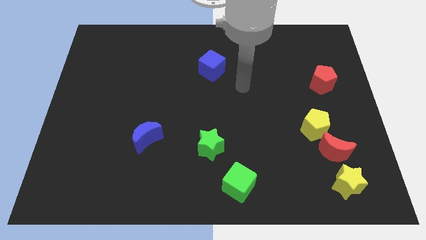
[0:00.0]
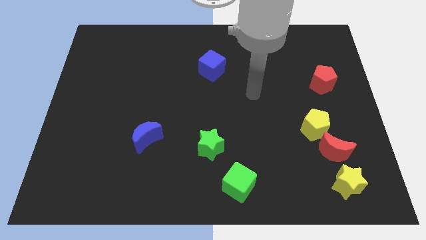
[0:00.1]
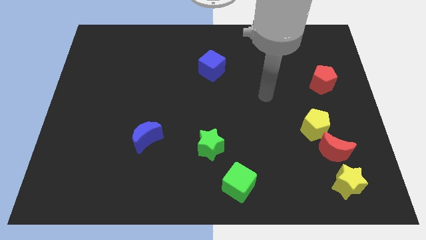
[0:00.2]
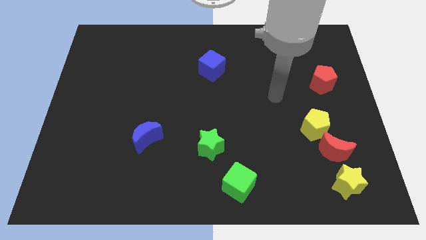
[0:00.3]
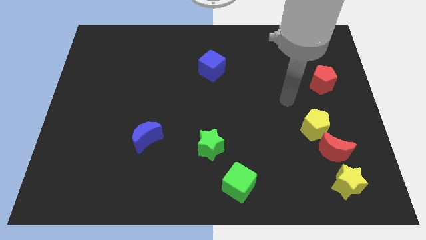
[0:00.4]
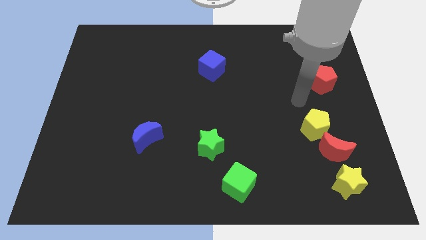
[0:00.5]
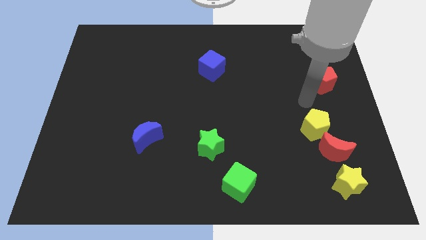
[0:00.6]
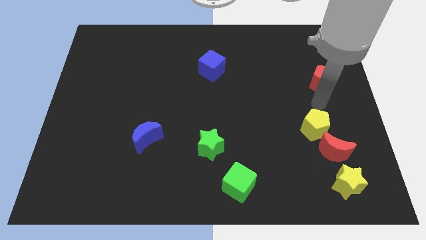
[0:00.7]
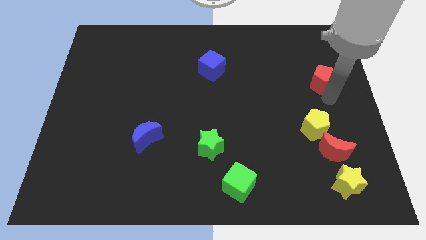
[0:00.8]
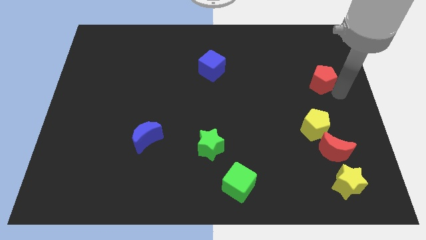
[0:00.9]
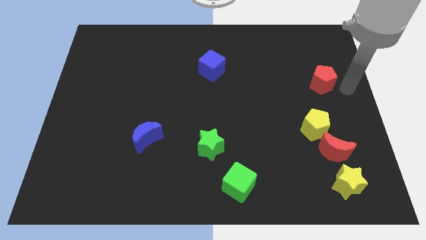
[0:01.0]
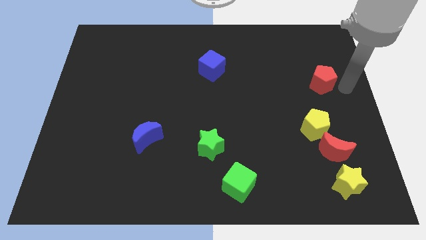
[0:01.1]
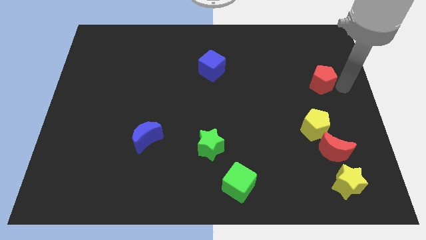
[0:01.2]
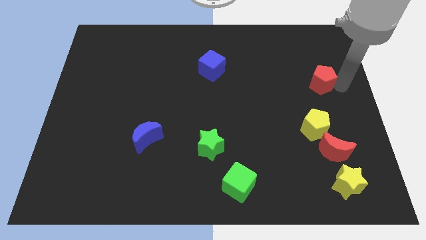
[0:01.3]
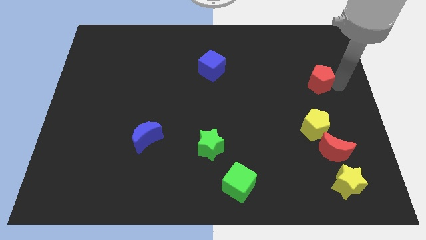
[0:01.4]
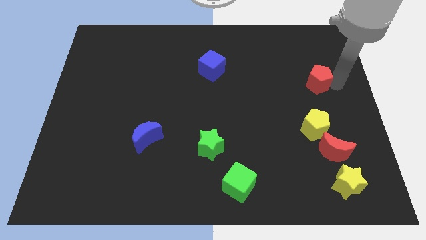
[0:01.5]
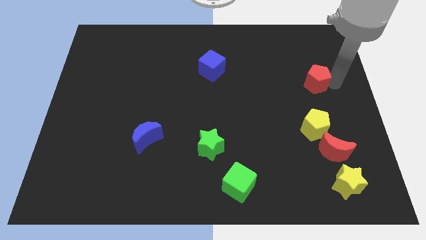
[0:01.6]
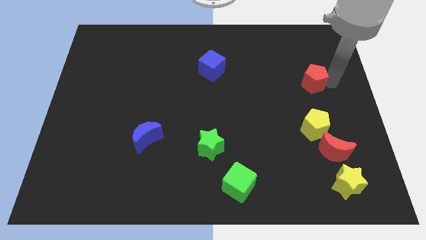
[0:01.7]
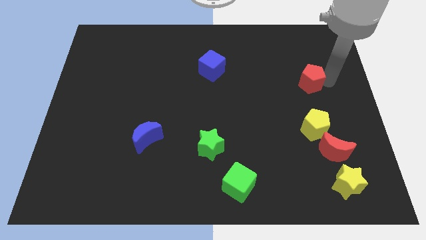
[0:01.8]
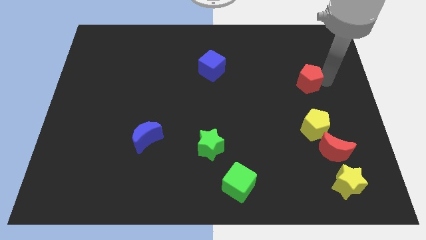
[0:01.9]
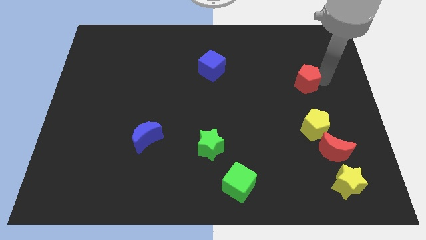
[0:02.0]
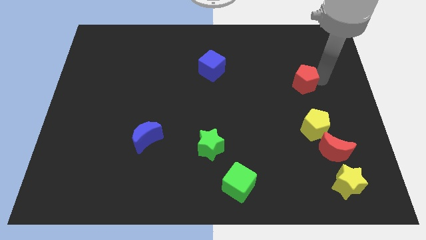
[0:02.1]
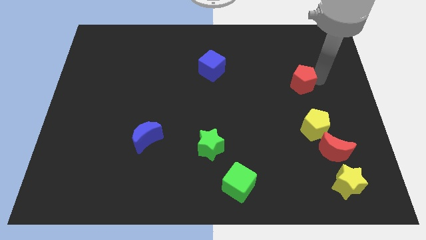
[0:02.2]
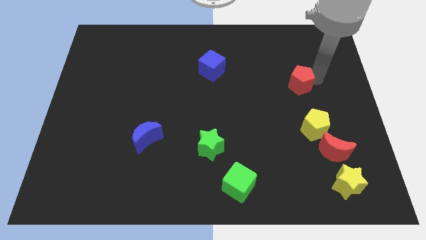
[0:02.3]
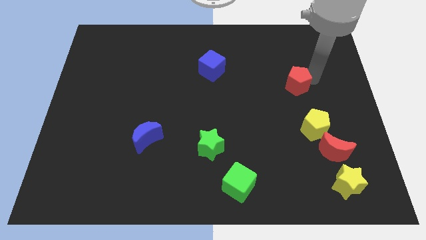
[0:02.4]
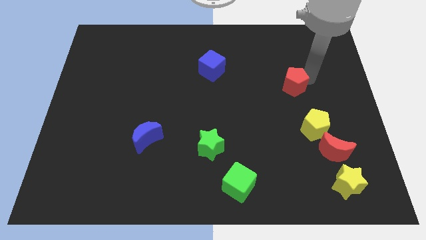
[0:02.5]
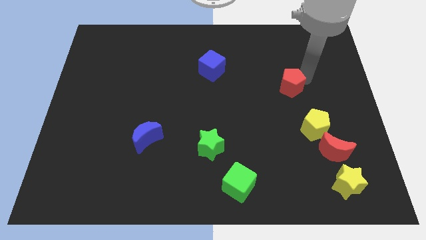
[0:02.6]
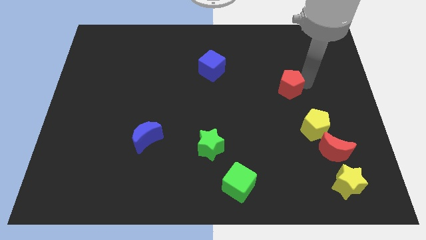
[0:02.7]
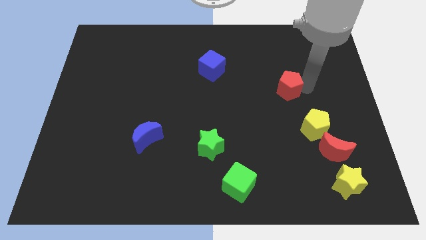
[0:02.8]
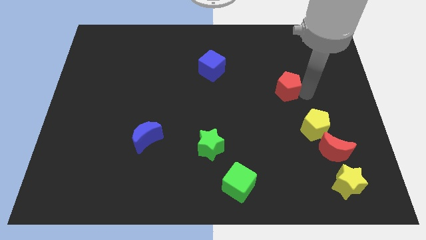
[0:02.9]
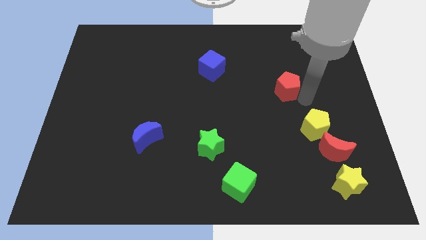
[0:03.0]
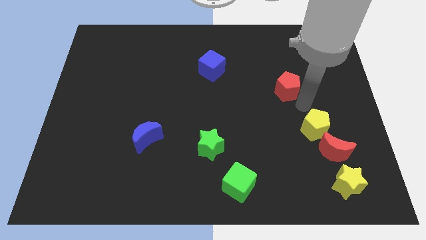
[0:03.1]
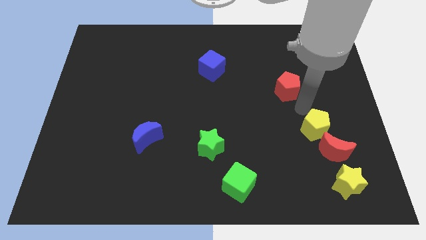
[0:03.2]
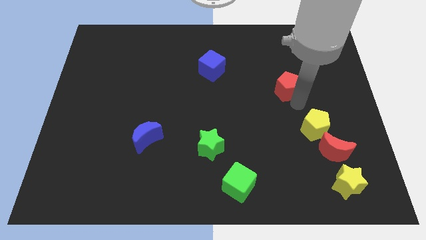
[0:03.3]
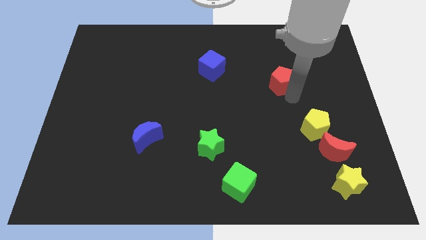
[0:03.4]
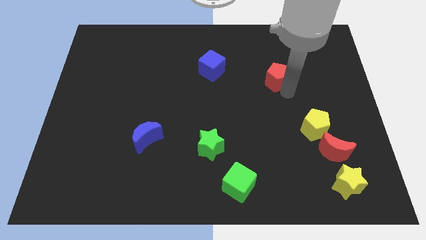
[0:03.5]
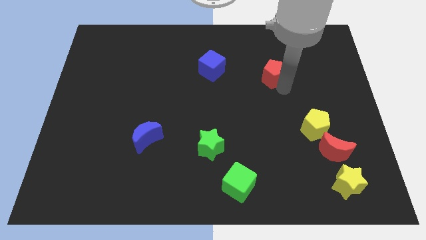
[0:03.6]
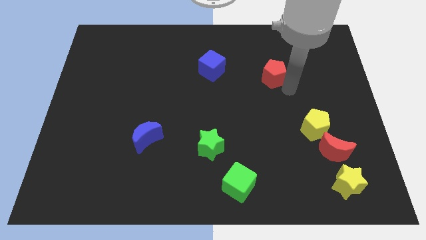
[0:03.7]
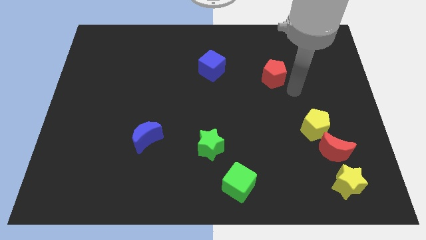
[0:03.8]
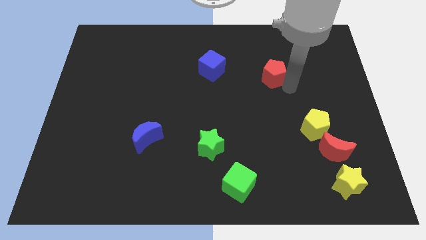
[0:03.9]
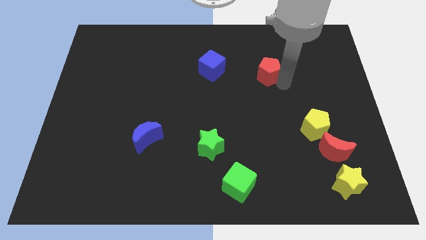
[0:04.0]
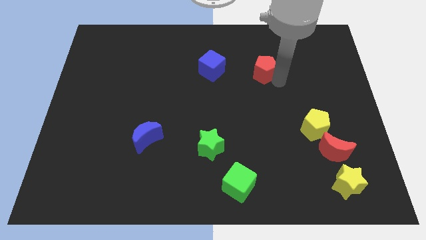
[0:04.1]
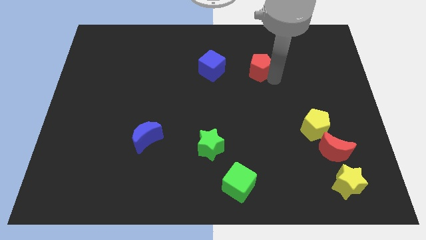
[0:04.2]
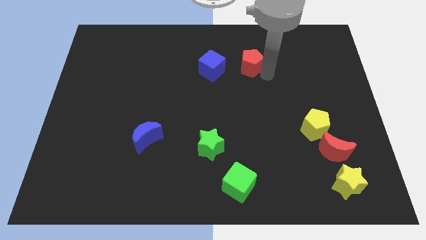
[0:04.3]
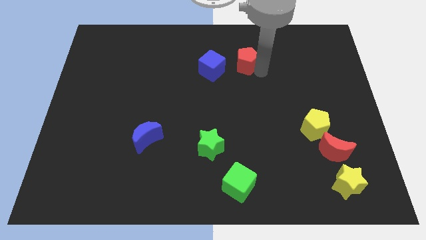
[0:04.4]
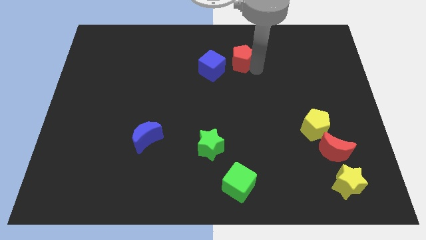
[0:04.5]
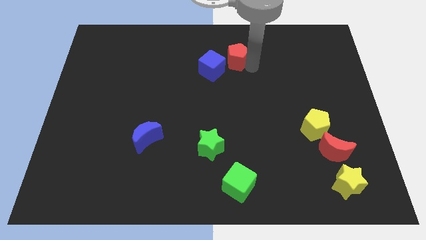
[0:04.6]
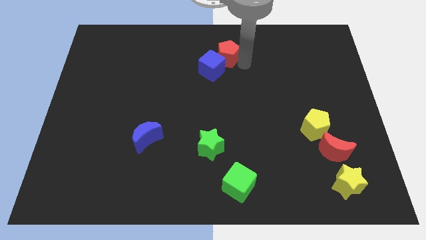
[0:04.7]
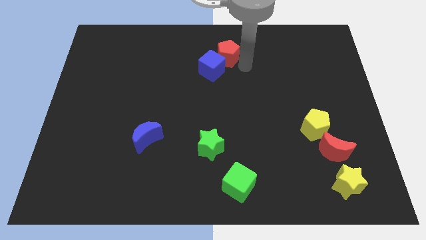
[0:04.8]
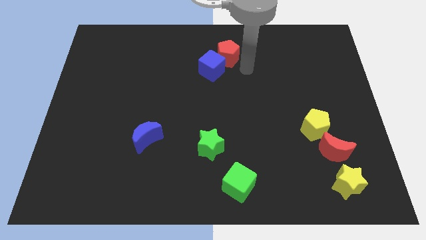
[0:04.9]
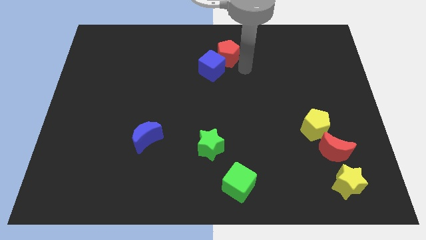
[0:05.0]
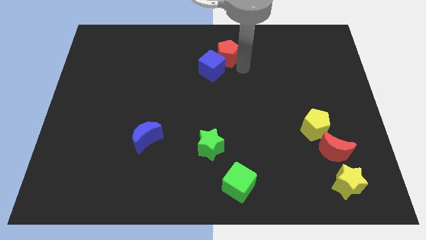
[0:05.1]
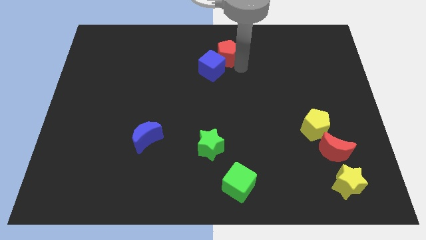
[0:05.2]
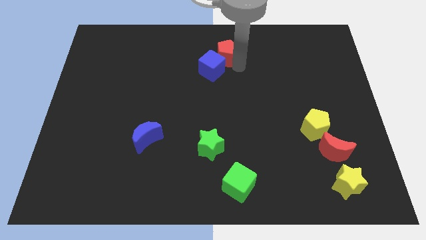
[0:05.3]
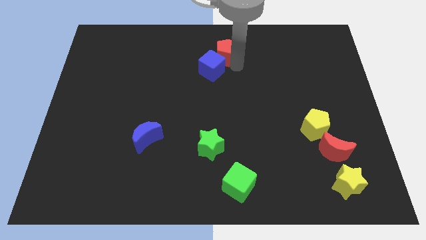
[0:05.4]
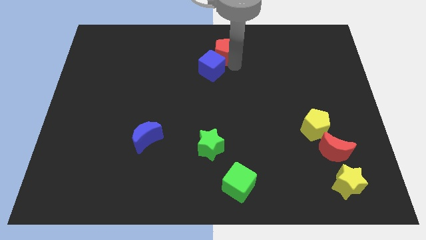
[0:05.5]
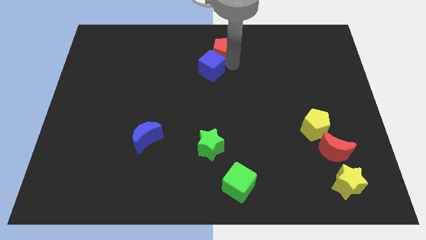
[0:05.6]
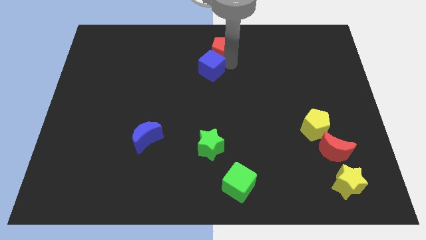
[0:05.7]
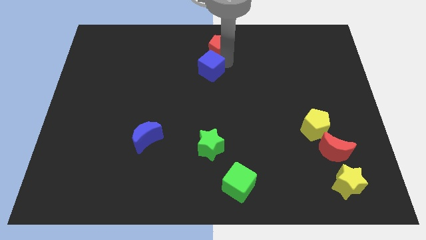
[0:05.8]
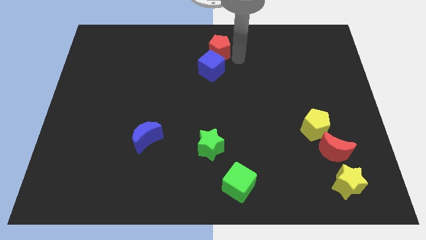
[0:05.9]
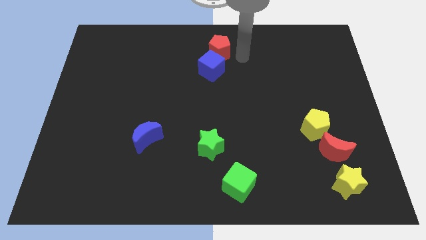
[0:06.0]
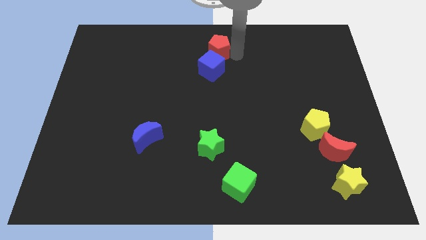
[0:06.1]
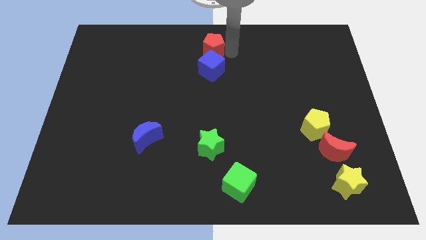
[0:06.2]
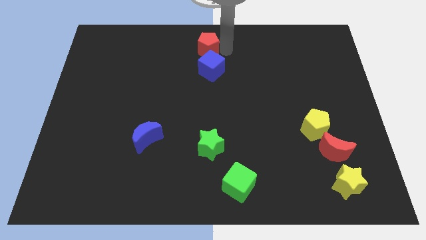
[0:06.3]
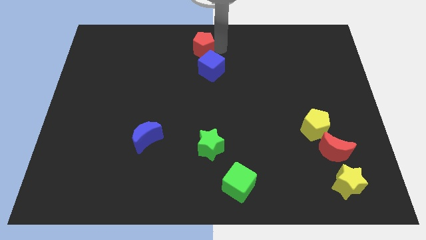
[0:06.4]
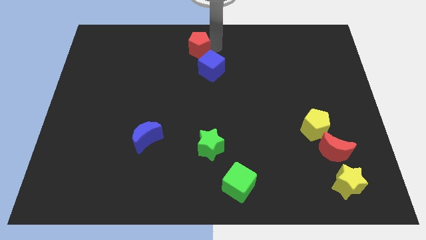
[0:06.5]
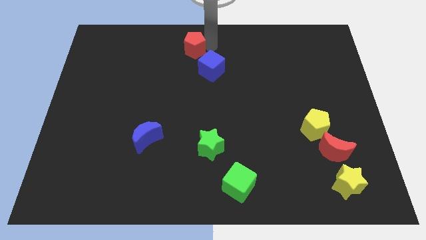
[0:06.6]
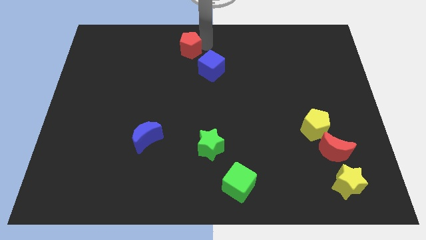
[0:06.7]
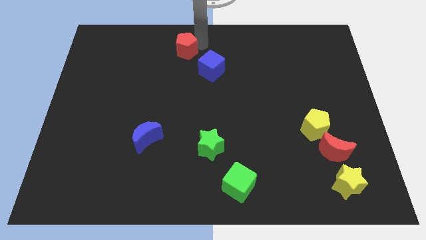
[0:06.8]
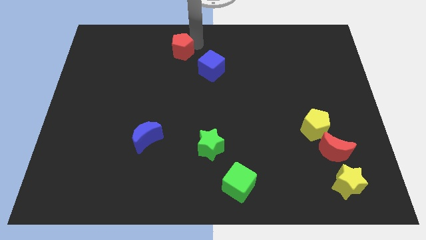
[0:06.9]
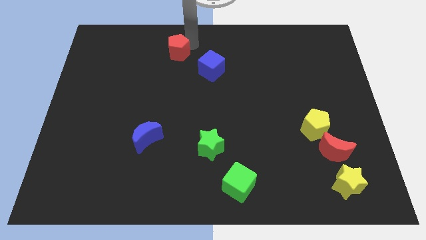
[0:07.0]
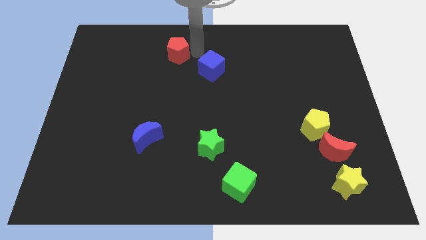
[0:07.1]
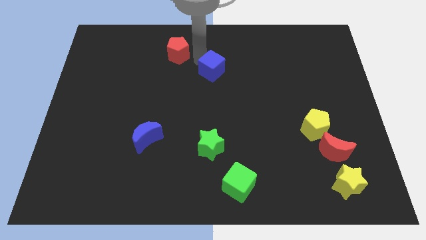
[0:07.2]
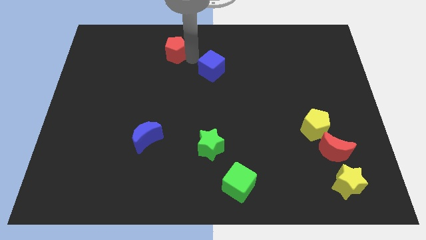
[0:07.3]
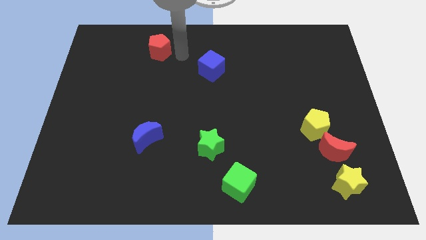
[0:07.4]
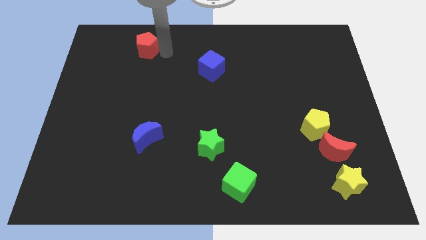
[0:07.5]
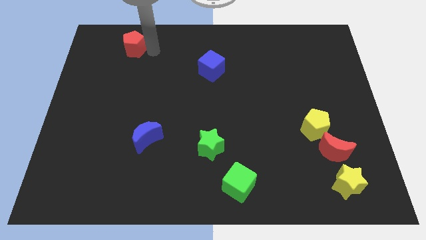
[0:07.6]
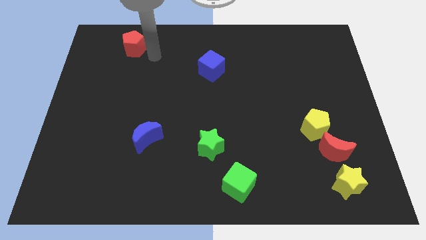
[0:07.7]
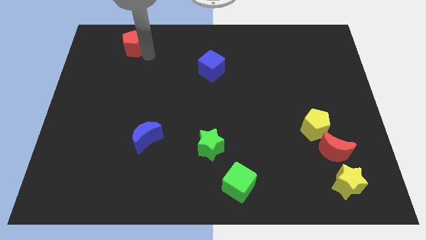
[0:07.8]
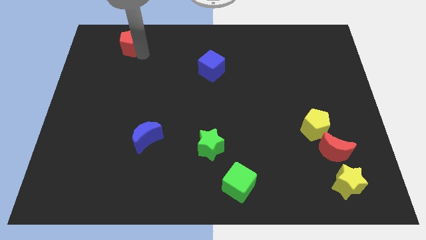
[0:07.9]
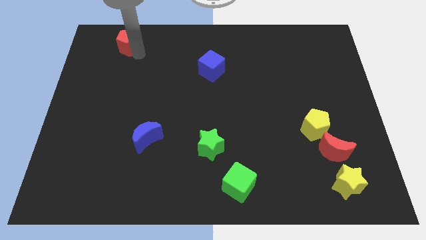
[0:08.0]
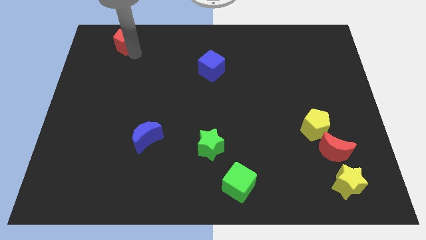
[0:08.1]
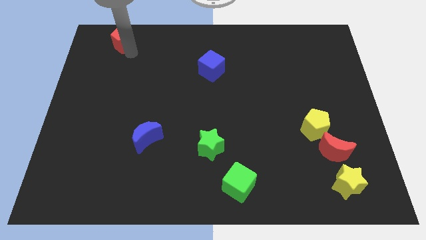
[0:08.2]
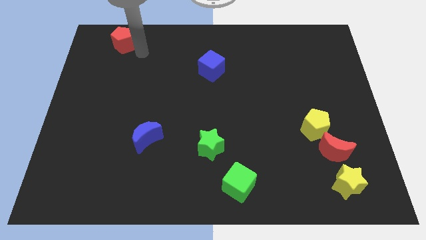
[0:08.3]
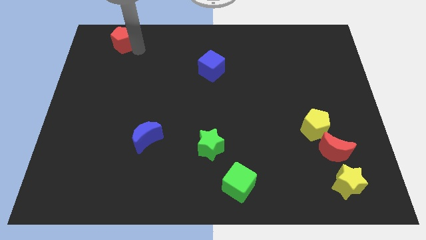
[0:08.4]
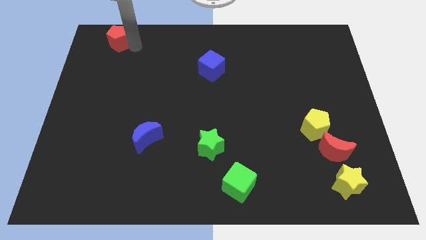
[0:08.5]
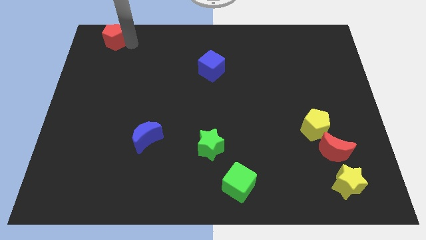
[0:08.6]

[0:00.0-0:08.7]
put the red pentagon to the upper left corner
